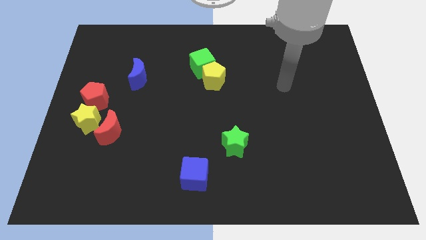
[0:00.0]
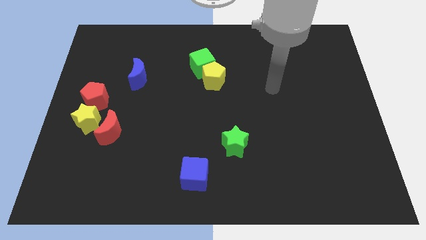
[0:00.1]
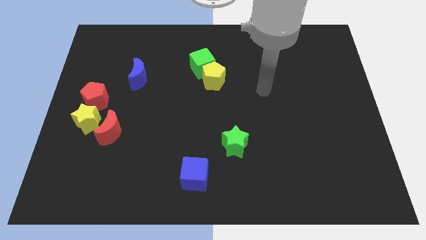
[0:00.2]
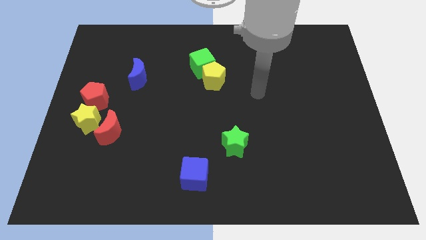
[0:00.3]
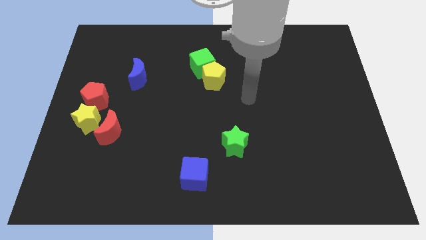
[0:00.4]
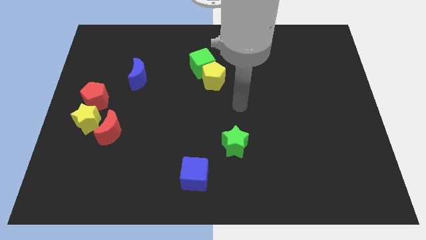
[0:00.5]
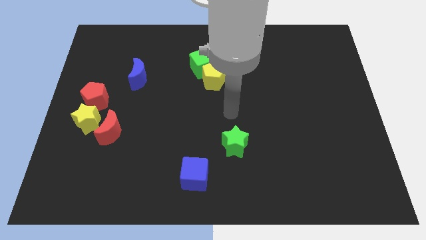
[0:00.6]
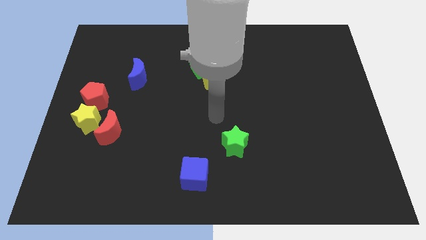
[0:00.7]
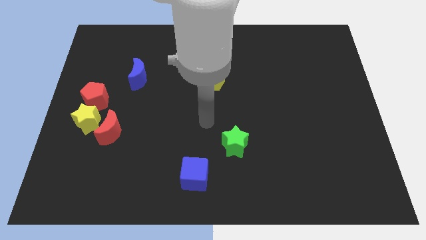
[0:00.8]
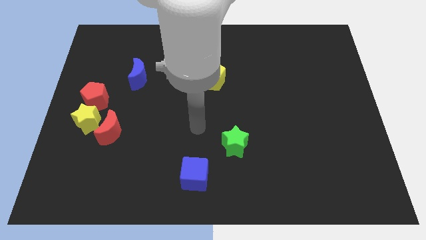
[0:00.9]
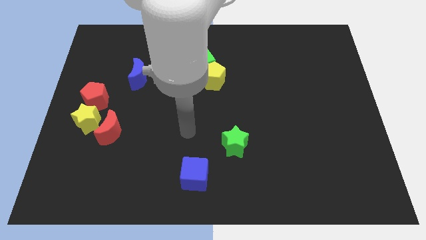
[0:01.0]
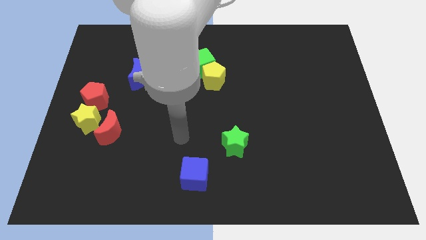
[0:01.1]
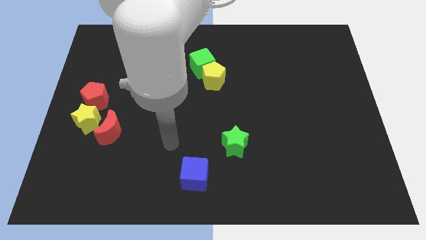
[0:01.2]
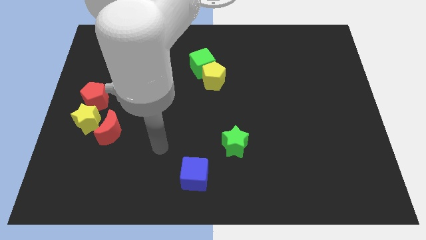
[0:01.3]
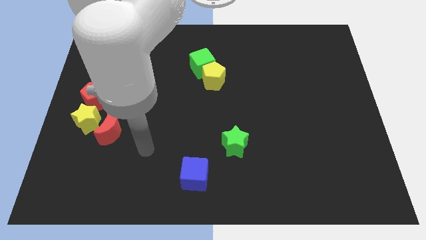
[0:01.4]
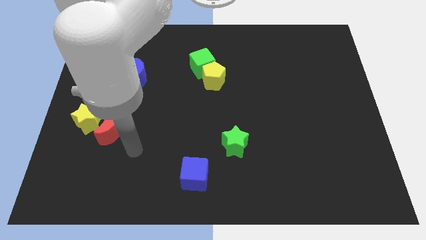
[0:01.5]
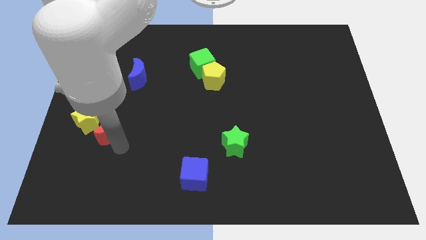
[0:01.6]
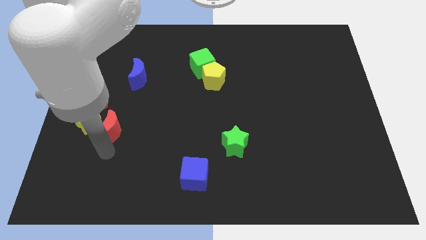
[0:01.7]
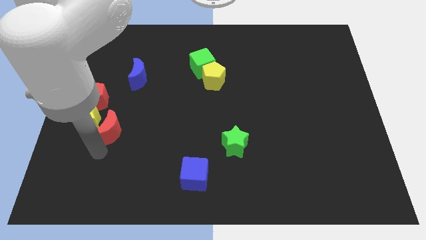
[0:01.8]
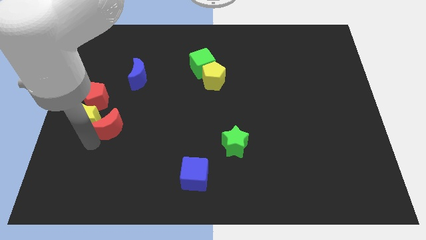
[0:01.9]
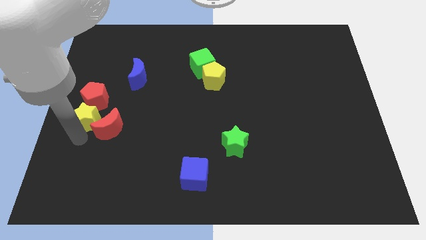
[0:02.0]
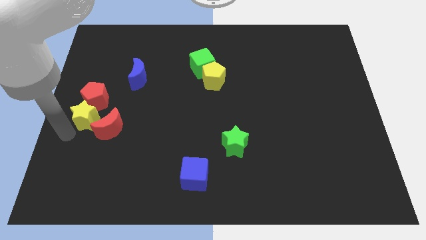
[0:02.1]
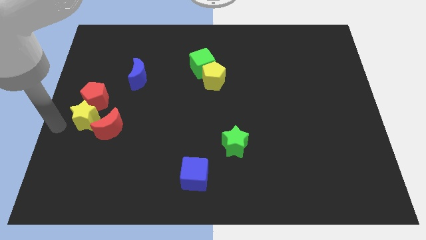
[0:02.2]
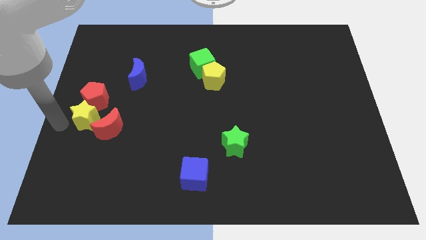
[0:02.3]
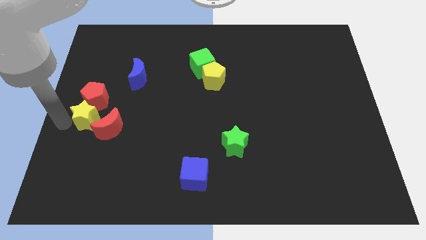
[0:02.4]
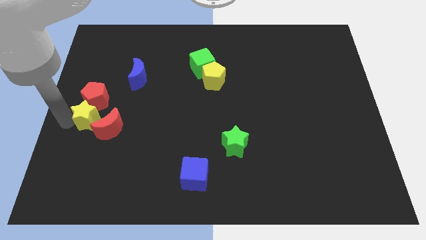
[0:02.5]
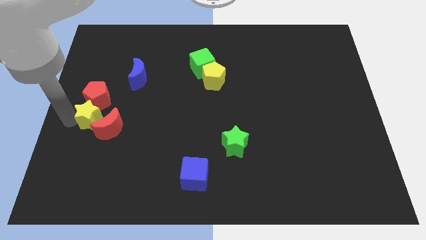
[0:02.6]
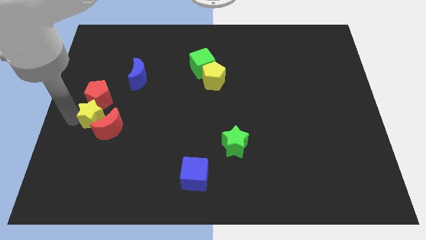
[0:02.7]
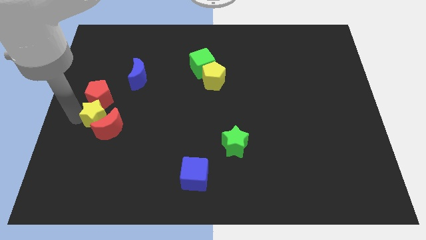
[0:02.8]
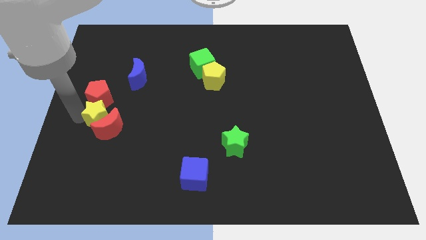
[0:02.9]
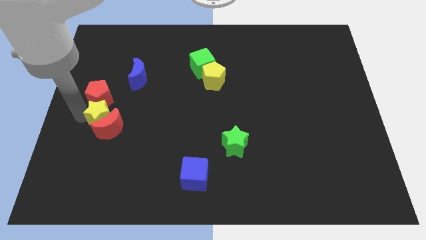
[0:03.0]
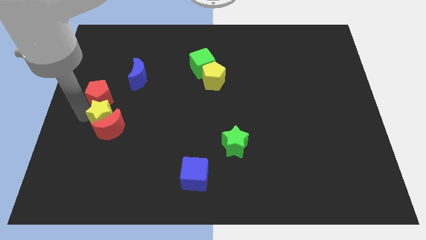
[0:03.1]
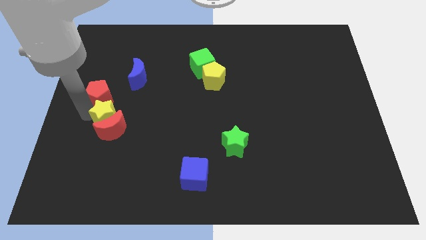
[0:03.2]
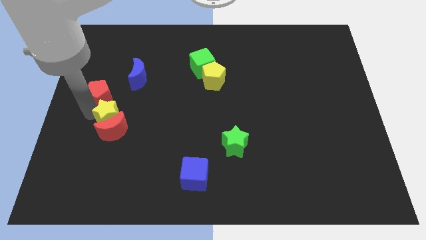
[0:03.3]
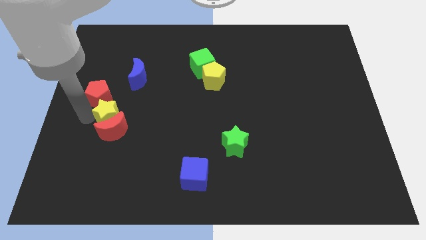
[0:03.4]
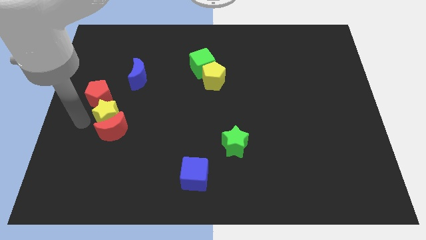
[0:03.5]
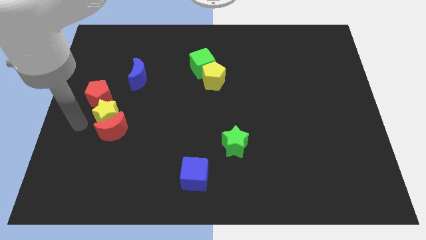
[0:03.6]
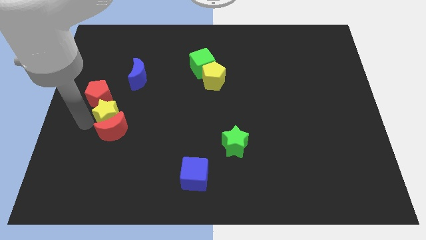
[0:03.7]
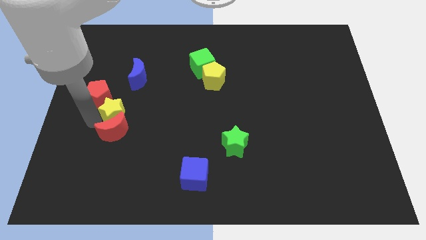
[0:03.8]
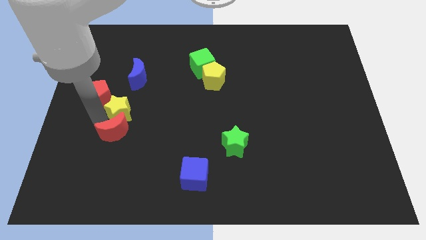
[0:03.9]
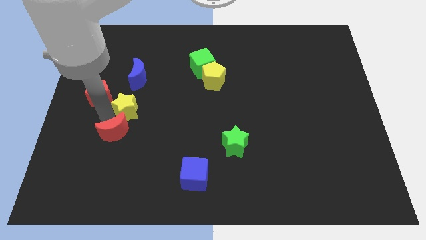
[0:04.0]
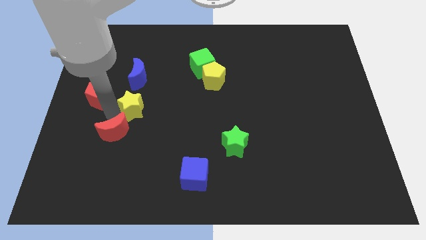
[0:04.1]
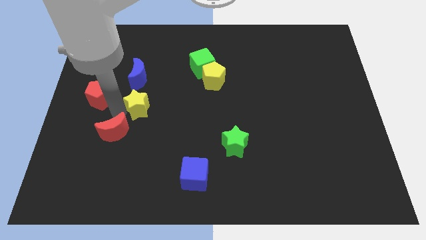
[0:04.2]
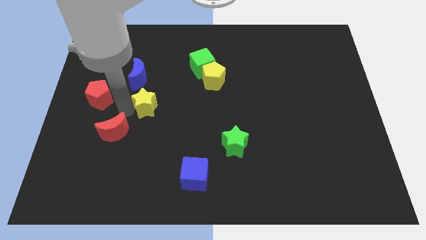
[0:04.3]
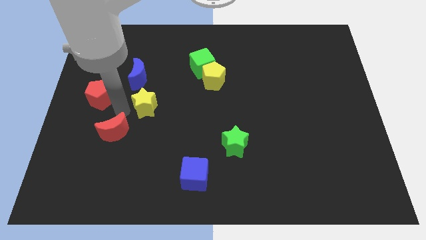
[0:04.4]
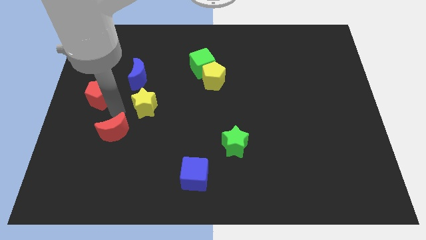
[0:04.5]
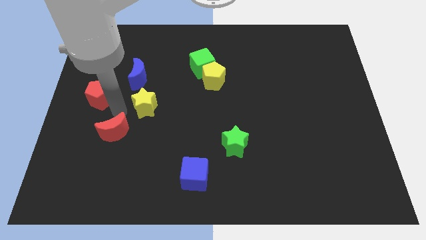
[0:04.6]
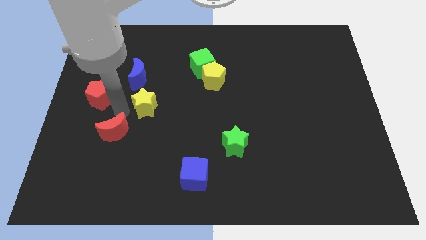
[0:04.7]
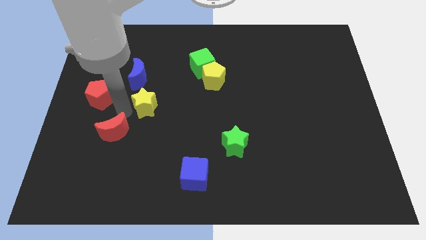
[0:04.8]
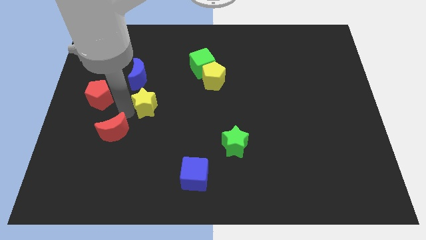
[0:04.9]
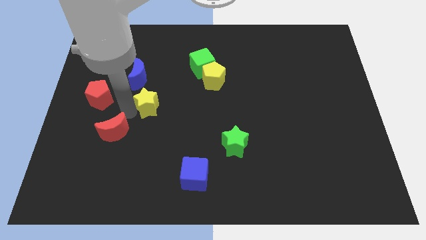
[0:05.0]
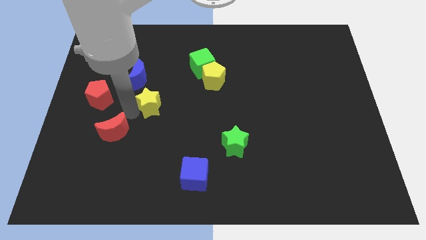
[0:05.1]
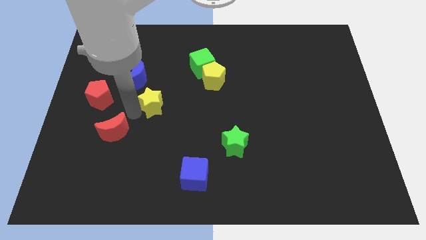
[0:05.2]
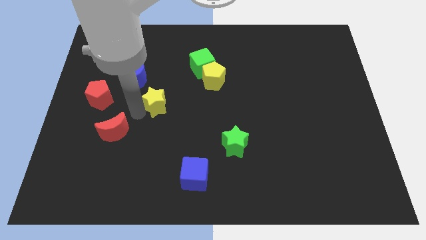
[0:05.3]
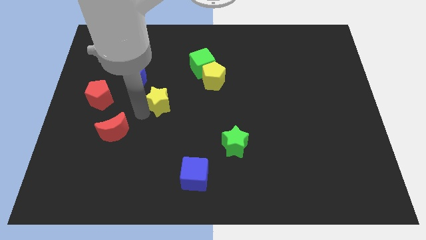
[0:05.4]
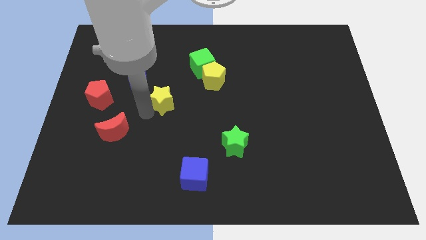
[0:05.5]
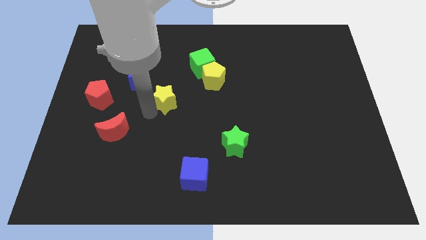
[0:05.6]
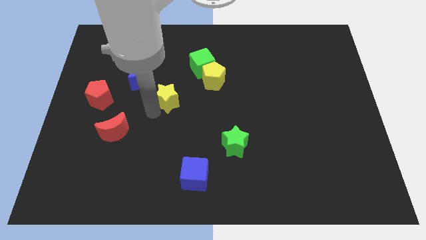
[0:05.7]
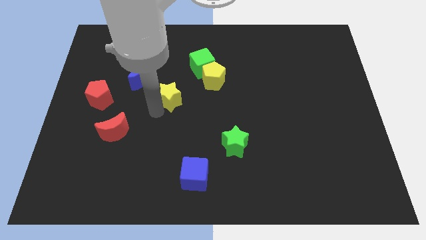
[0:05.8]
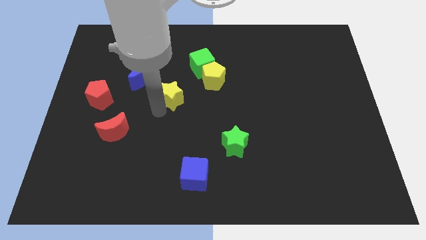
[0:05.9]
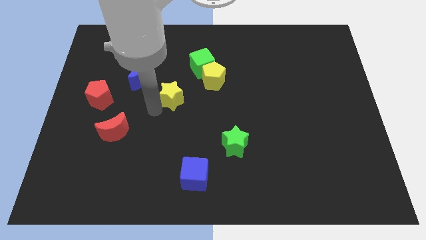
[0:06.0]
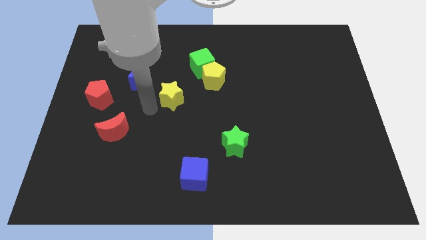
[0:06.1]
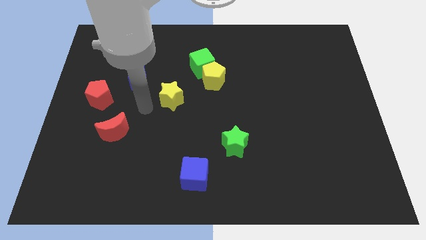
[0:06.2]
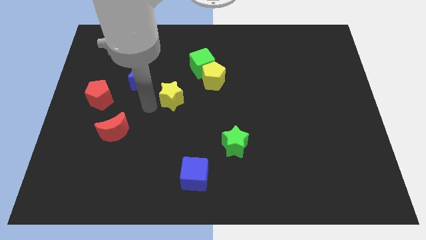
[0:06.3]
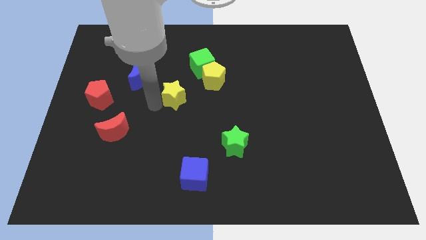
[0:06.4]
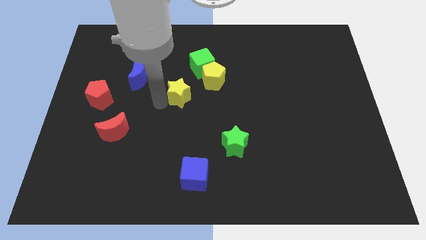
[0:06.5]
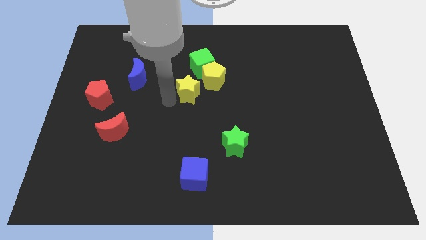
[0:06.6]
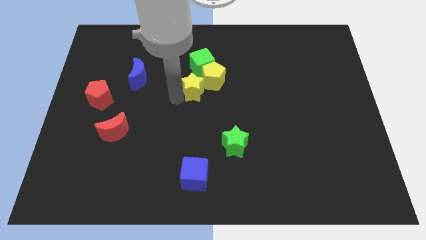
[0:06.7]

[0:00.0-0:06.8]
push the yellow star towards the yellow pentagon

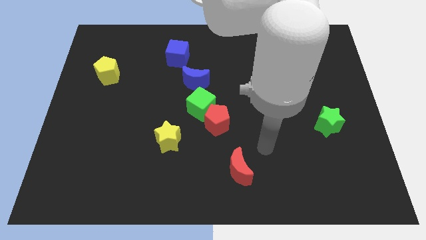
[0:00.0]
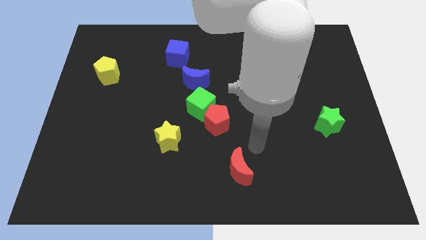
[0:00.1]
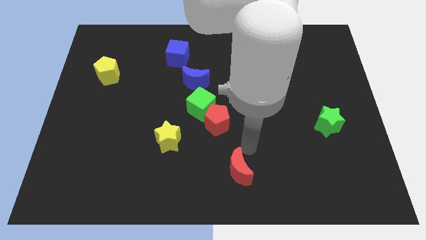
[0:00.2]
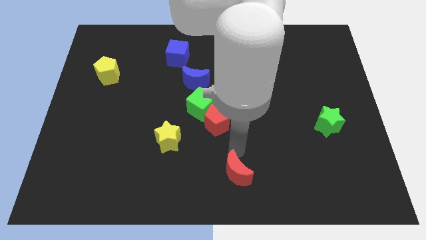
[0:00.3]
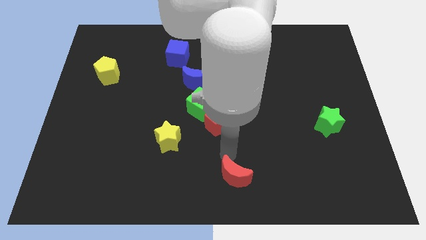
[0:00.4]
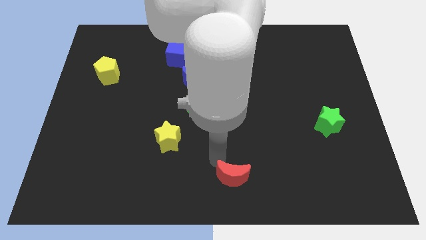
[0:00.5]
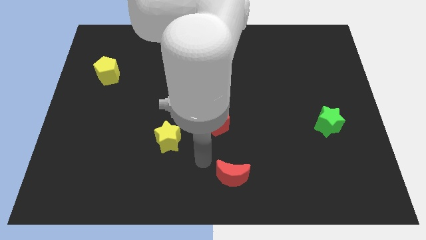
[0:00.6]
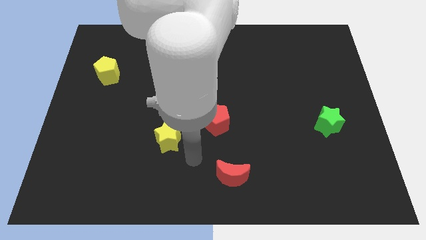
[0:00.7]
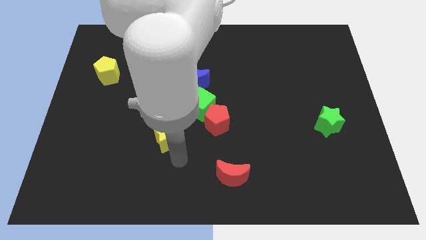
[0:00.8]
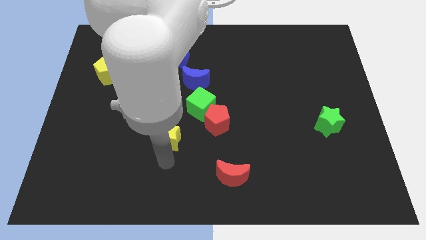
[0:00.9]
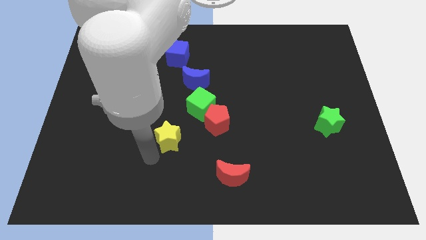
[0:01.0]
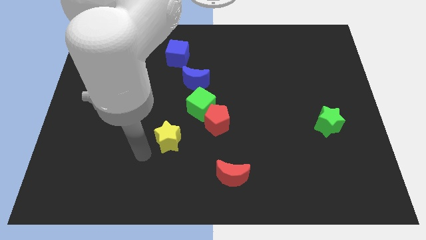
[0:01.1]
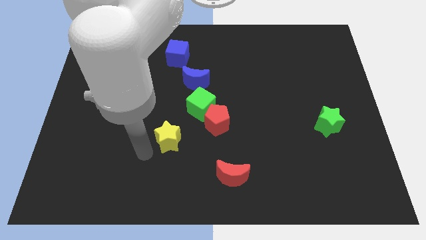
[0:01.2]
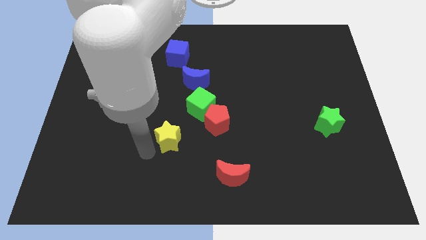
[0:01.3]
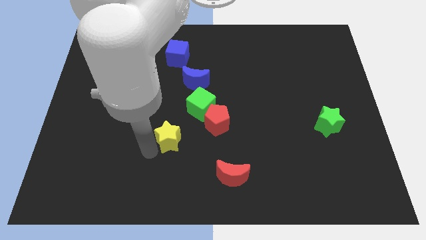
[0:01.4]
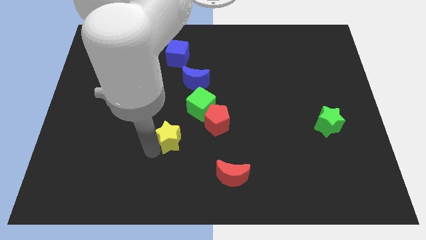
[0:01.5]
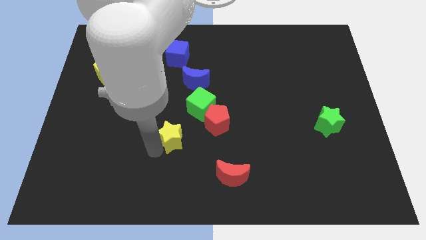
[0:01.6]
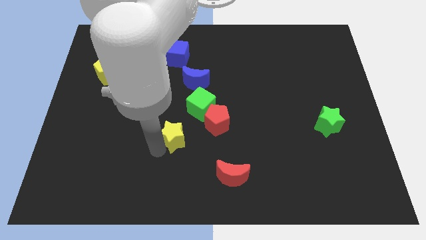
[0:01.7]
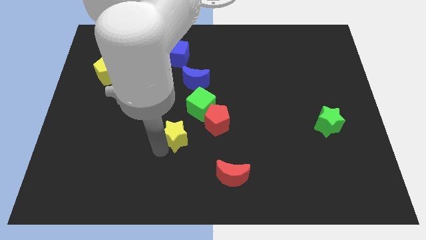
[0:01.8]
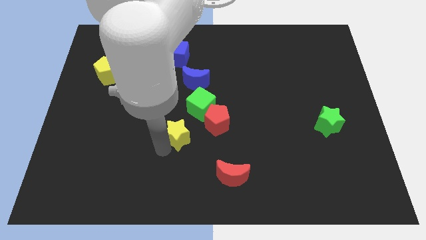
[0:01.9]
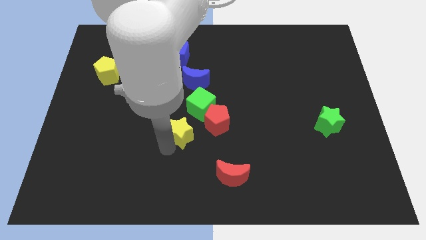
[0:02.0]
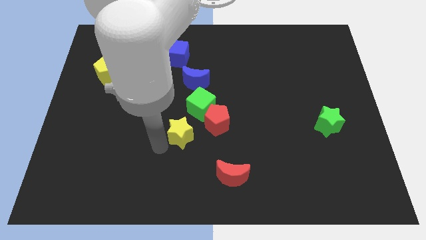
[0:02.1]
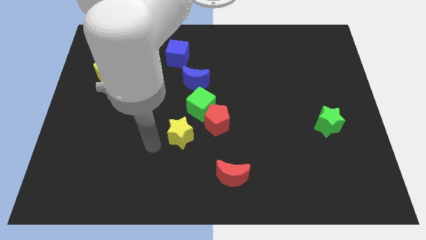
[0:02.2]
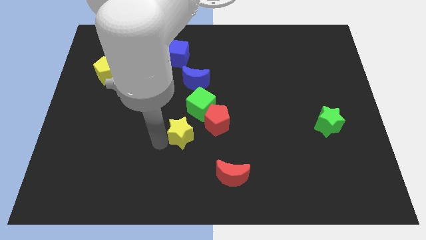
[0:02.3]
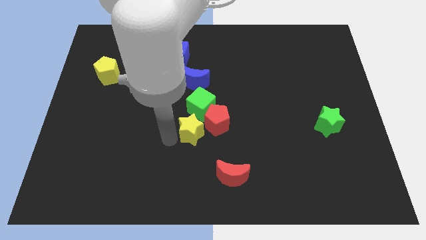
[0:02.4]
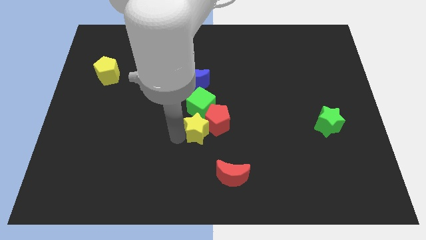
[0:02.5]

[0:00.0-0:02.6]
move the yellow star close to the red pentagon
